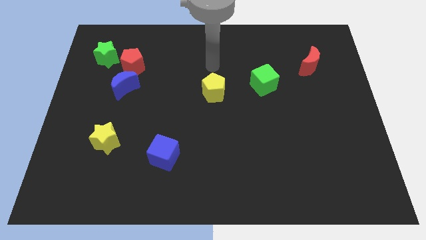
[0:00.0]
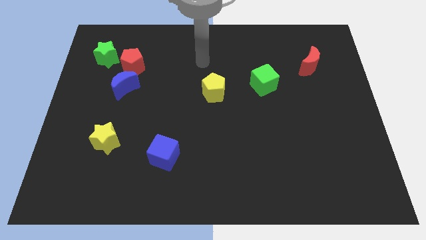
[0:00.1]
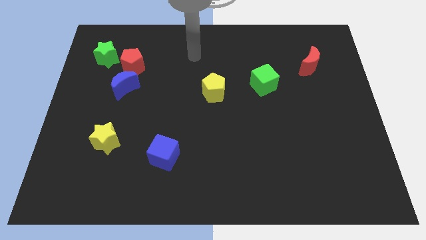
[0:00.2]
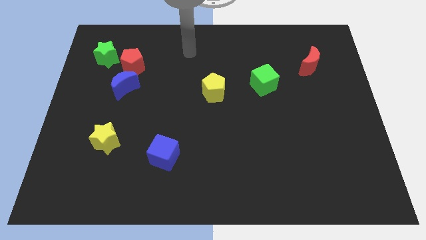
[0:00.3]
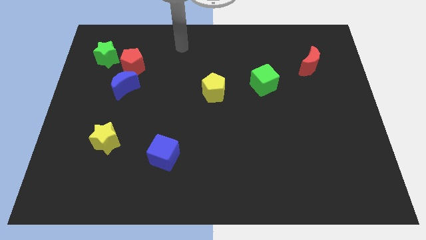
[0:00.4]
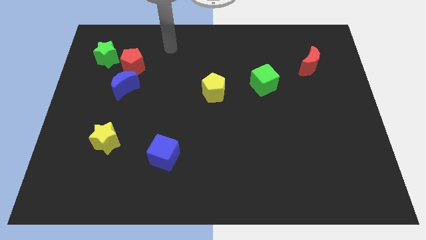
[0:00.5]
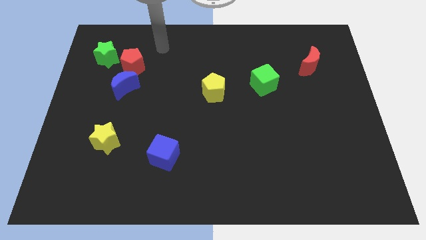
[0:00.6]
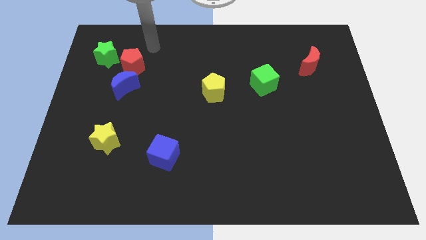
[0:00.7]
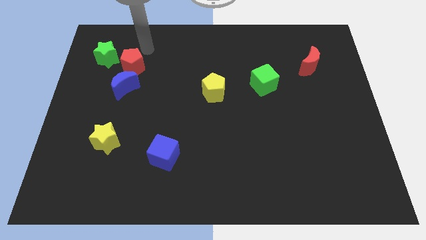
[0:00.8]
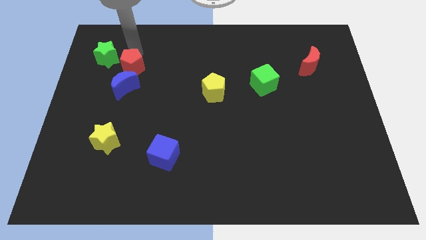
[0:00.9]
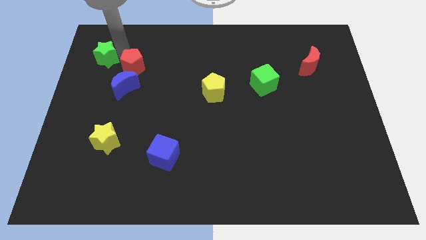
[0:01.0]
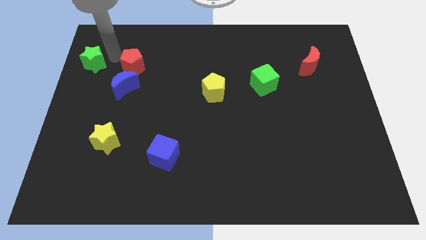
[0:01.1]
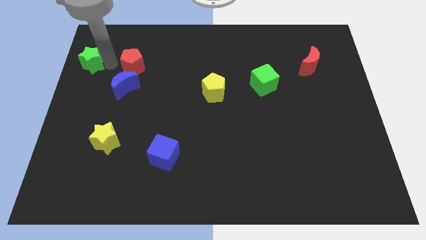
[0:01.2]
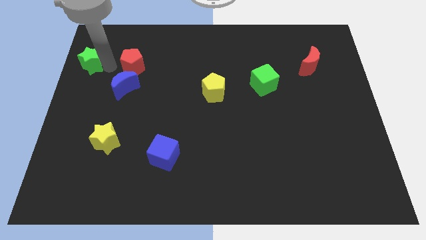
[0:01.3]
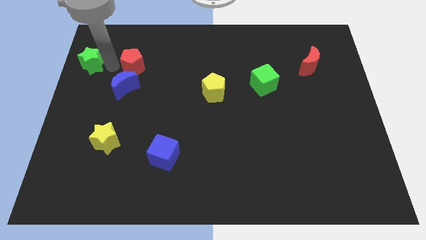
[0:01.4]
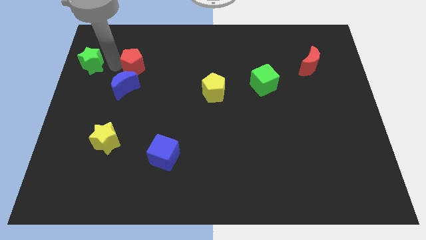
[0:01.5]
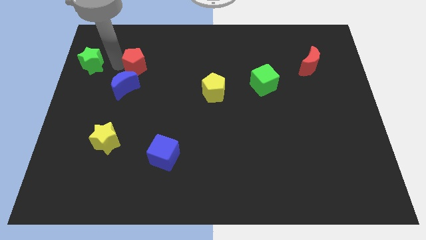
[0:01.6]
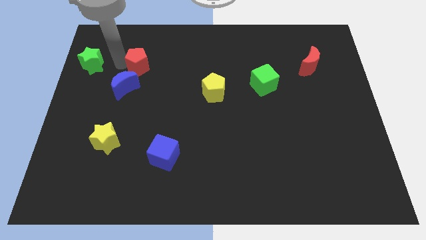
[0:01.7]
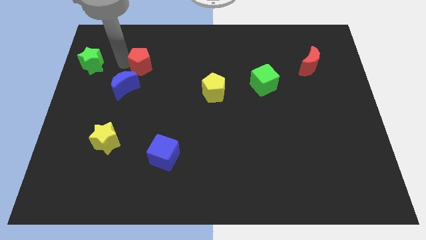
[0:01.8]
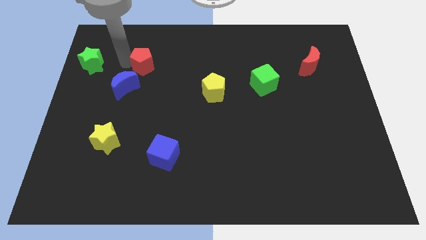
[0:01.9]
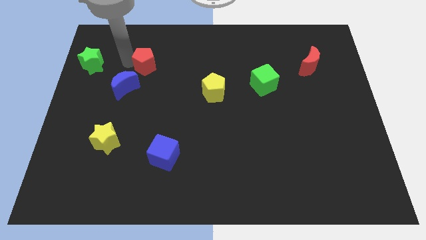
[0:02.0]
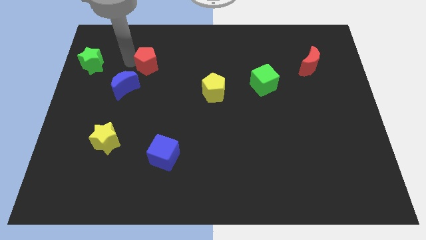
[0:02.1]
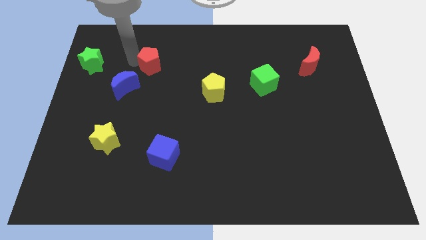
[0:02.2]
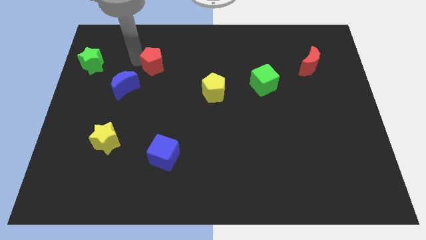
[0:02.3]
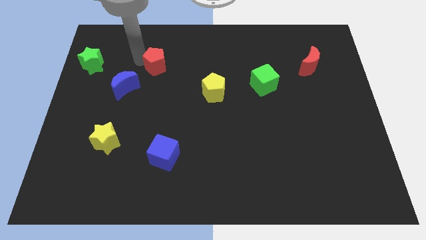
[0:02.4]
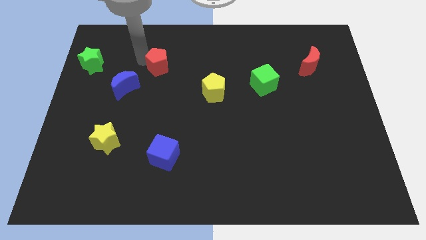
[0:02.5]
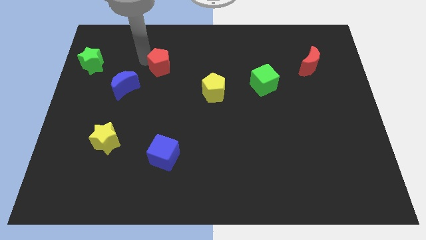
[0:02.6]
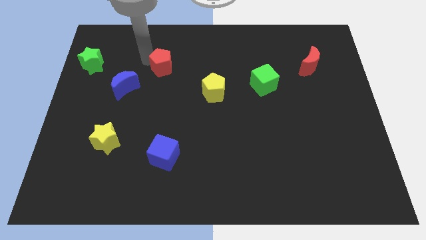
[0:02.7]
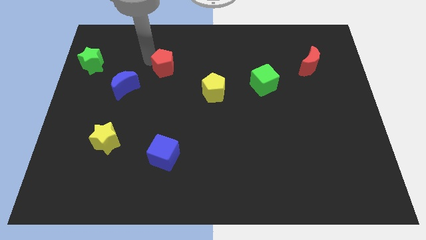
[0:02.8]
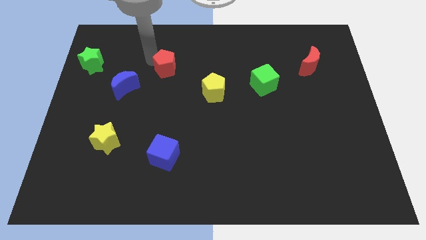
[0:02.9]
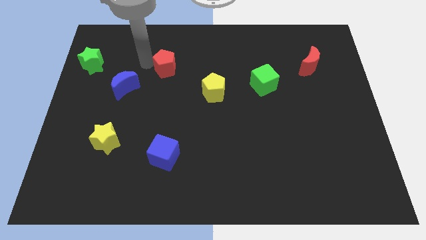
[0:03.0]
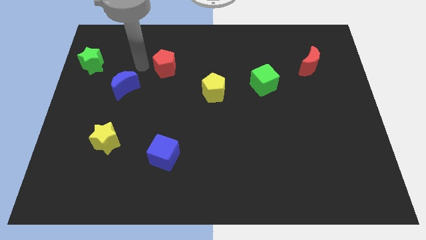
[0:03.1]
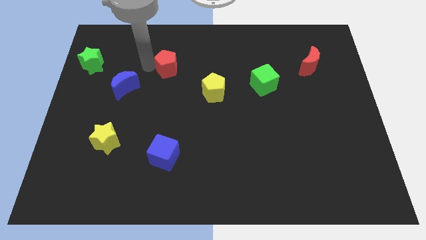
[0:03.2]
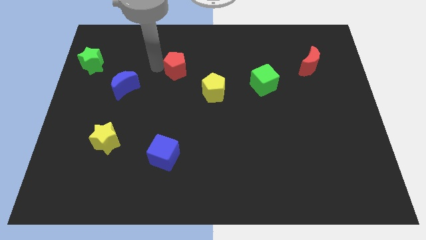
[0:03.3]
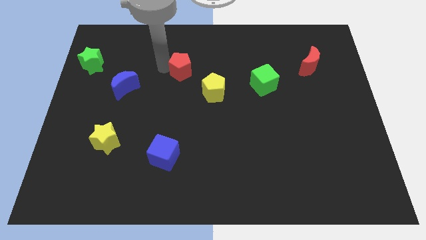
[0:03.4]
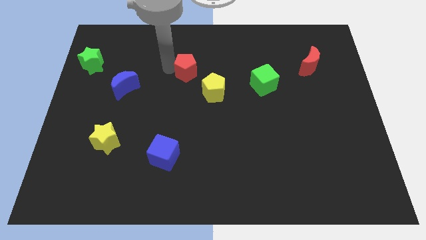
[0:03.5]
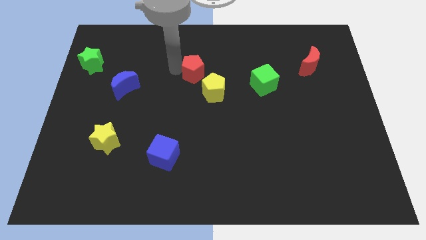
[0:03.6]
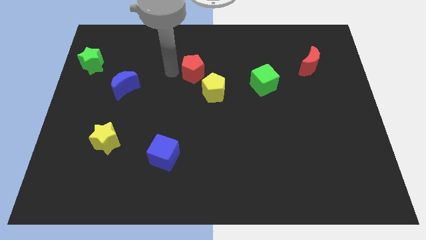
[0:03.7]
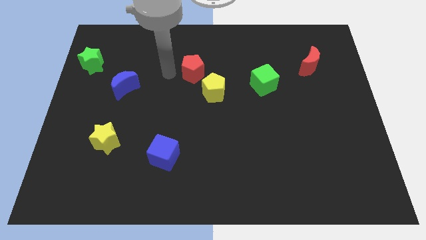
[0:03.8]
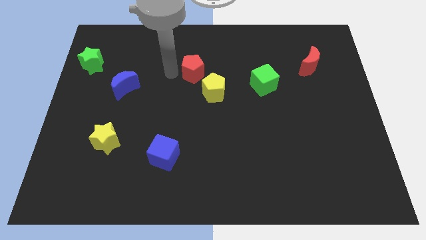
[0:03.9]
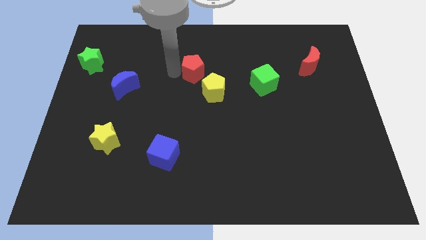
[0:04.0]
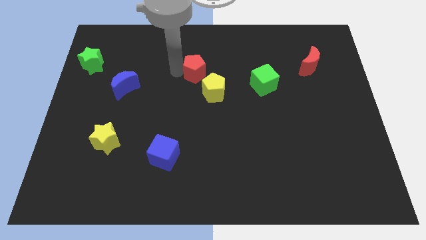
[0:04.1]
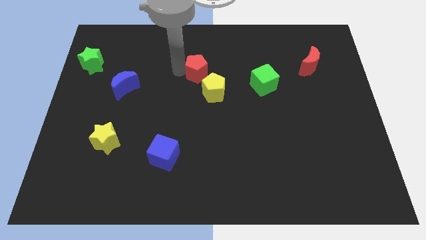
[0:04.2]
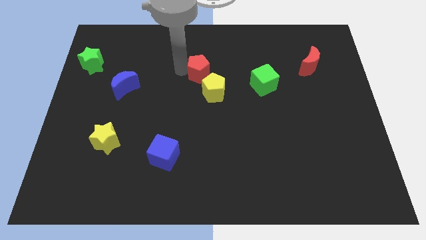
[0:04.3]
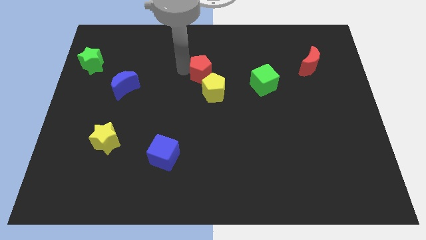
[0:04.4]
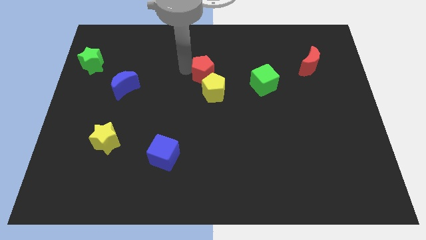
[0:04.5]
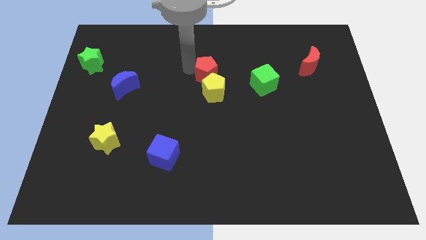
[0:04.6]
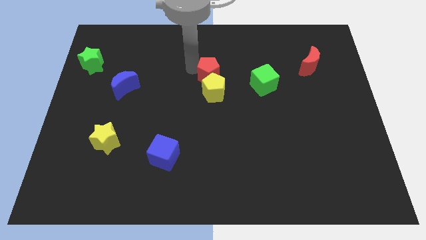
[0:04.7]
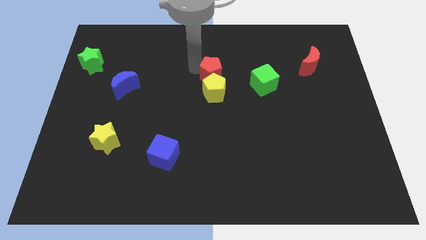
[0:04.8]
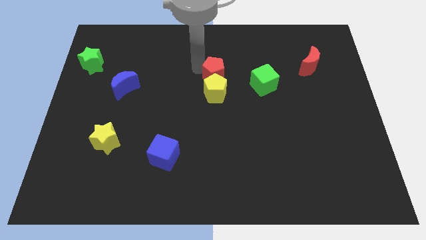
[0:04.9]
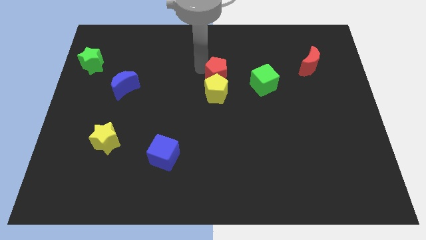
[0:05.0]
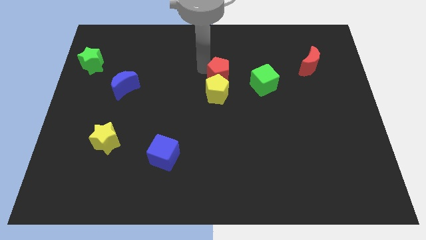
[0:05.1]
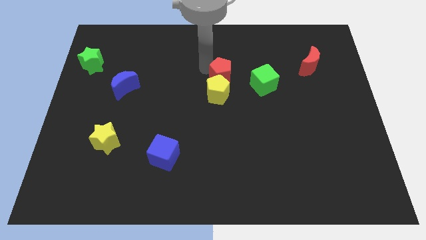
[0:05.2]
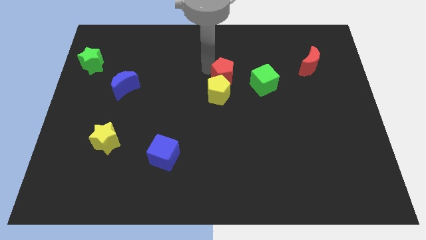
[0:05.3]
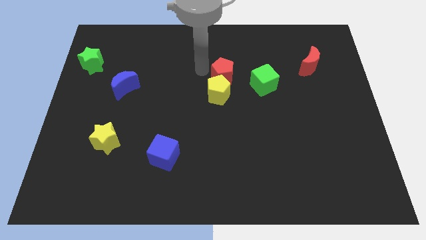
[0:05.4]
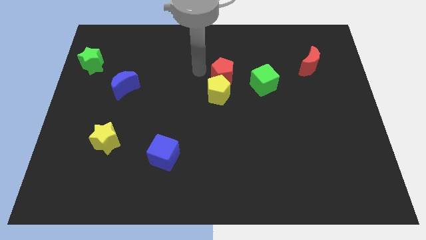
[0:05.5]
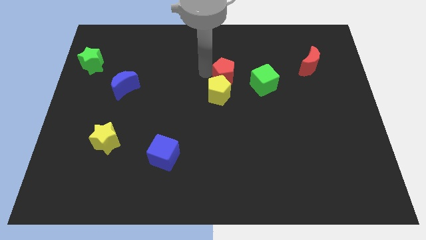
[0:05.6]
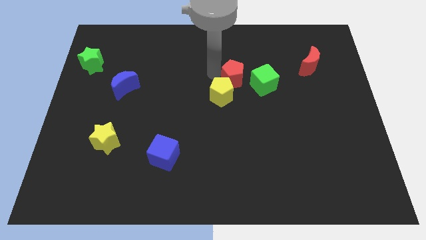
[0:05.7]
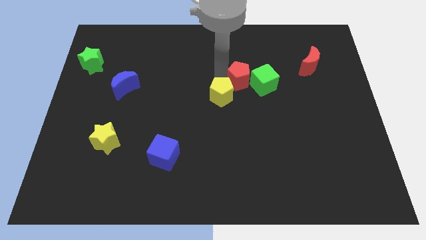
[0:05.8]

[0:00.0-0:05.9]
move the red pentagon to the green cube

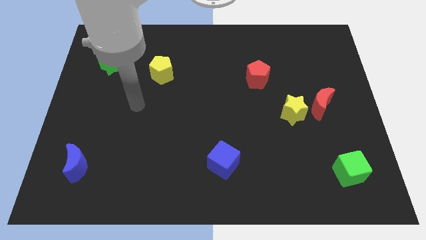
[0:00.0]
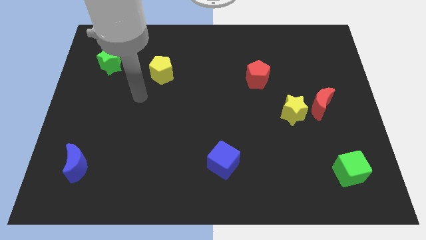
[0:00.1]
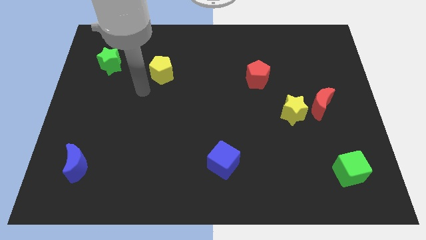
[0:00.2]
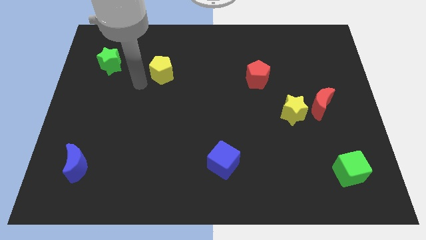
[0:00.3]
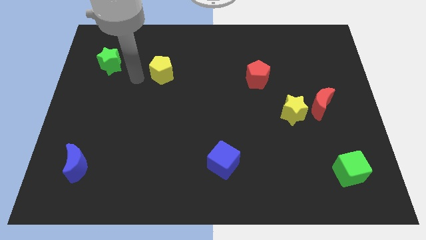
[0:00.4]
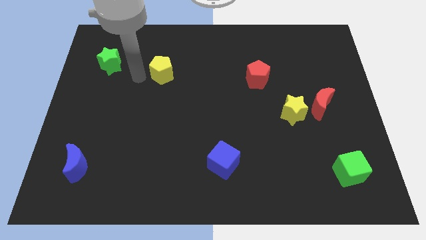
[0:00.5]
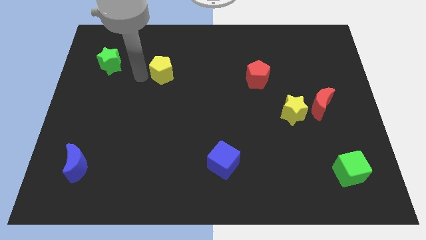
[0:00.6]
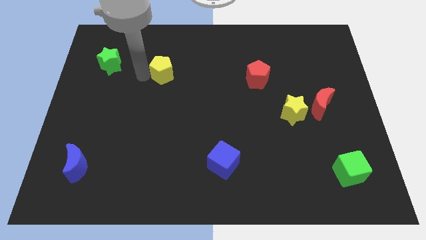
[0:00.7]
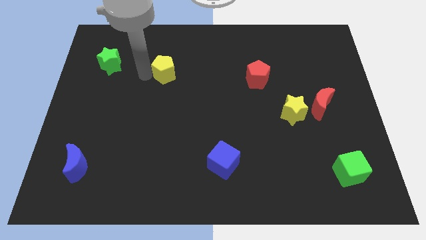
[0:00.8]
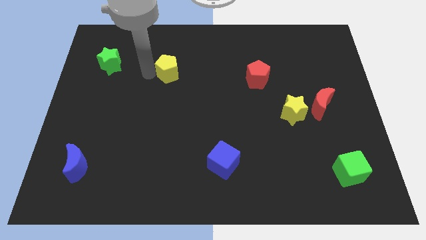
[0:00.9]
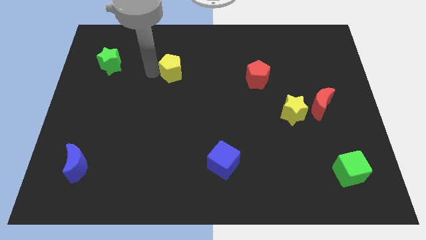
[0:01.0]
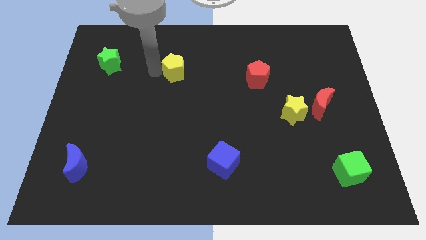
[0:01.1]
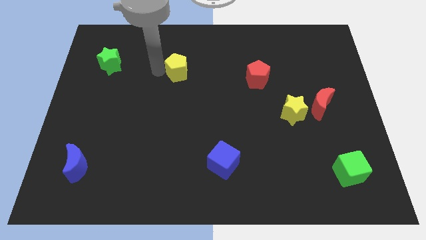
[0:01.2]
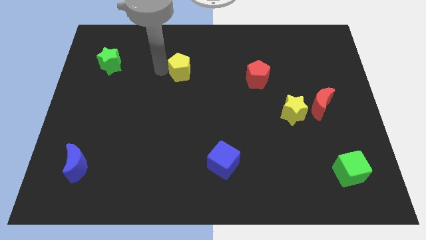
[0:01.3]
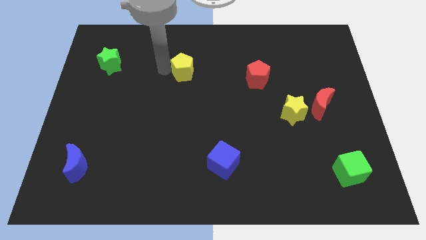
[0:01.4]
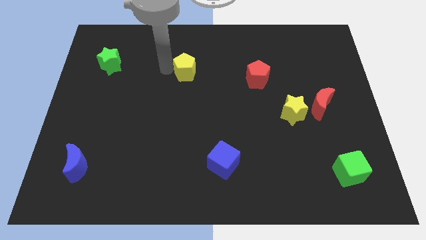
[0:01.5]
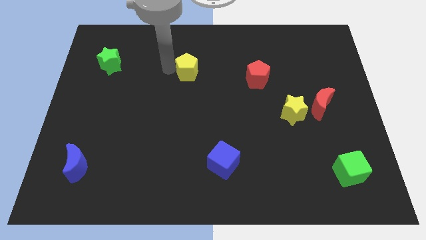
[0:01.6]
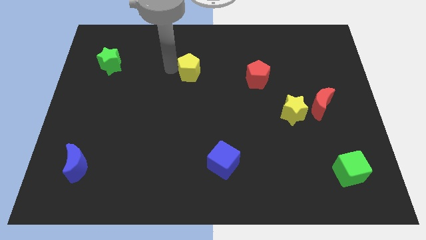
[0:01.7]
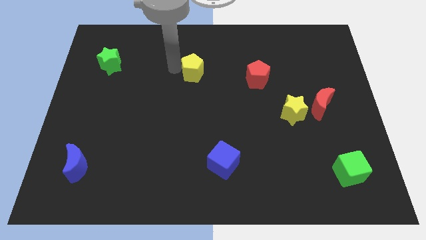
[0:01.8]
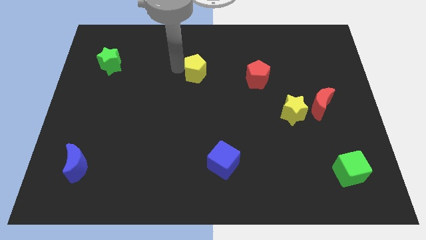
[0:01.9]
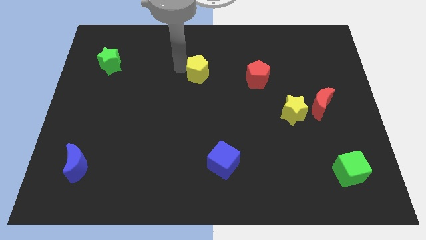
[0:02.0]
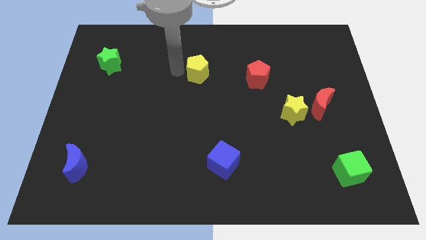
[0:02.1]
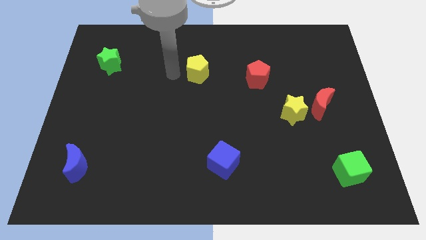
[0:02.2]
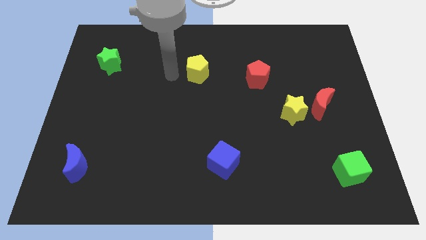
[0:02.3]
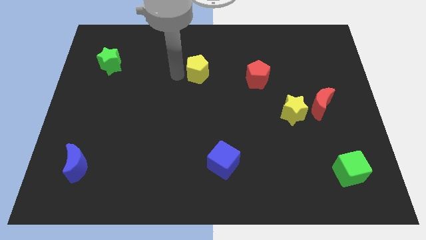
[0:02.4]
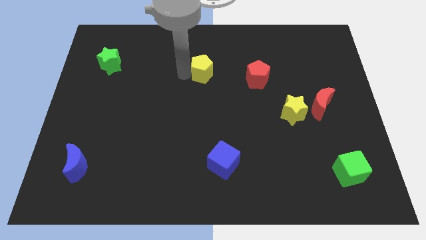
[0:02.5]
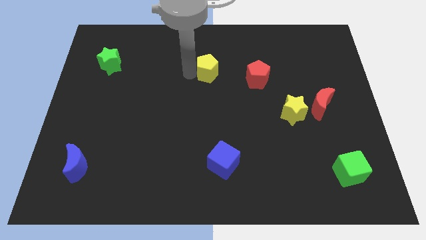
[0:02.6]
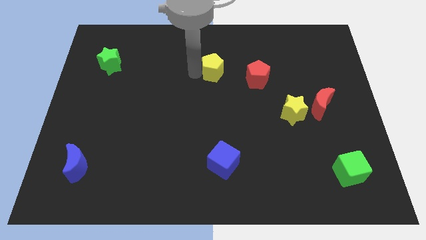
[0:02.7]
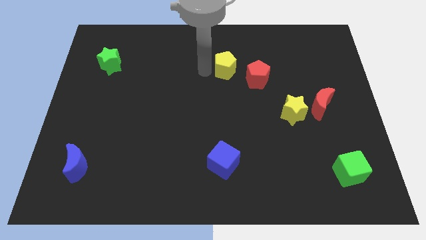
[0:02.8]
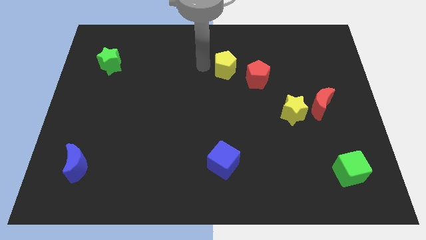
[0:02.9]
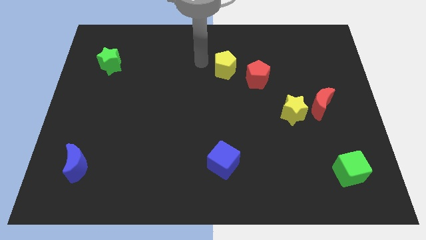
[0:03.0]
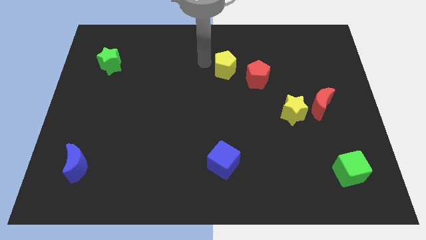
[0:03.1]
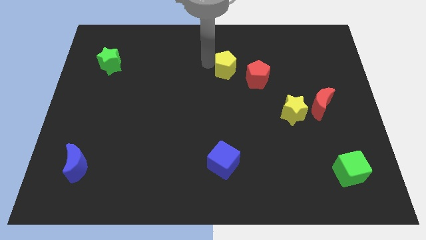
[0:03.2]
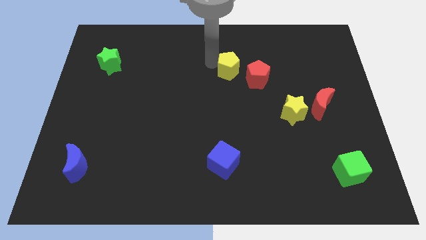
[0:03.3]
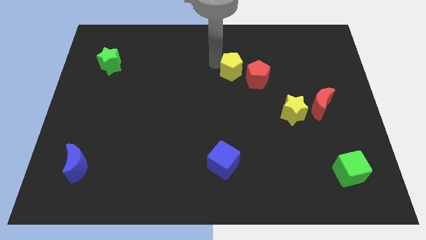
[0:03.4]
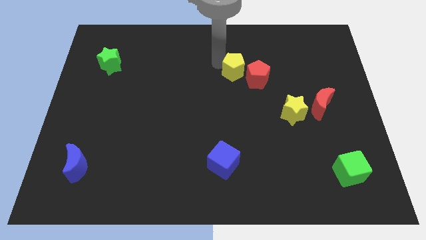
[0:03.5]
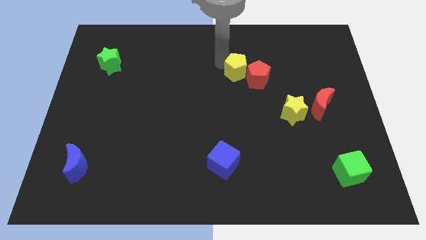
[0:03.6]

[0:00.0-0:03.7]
put the yellow pentagon to the red pentagon
